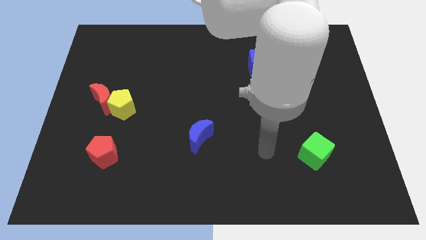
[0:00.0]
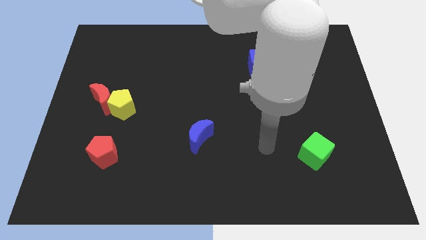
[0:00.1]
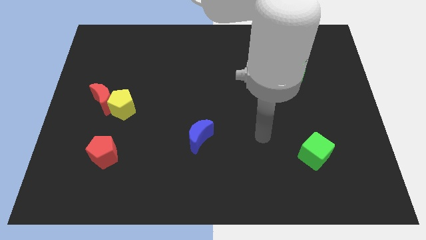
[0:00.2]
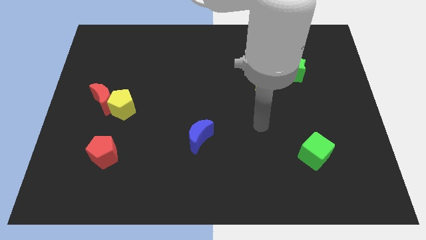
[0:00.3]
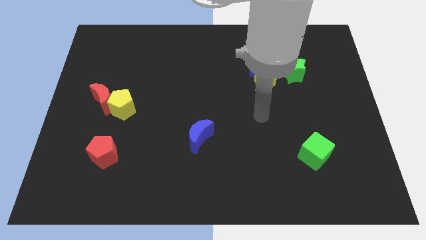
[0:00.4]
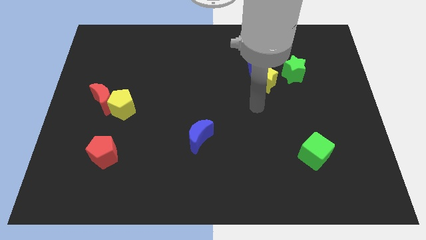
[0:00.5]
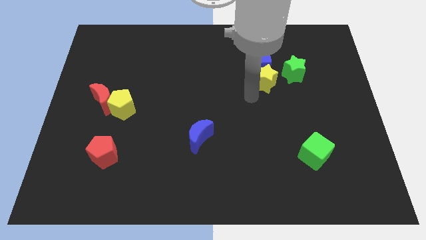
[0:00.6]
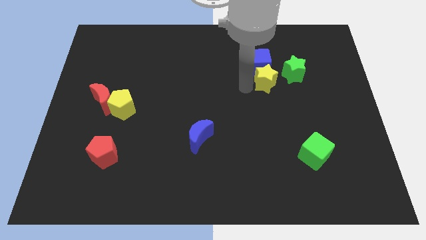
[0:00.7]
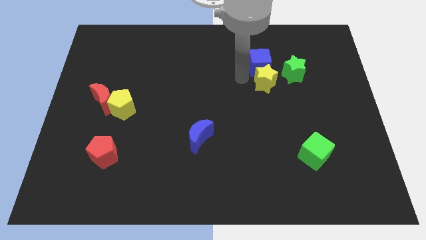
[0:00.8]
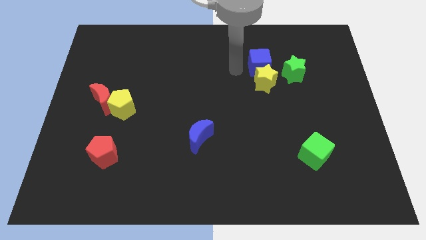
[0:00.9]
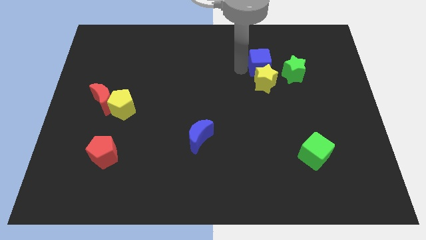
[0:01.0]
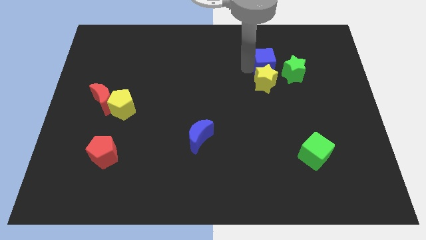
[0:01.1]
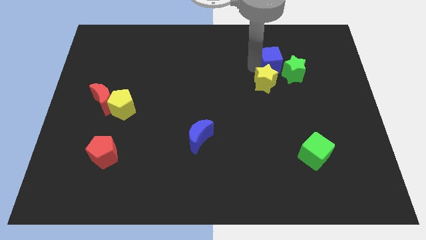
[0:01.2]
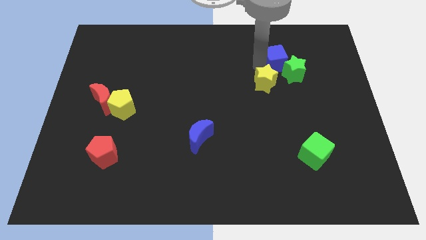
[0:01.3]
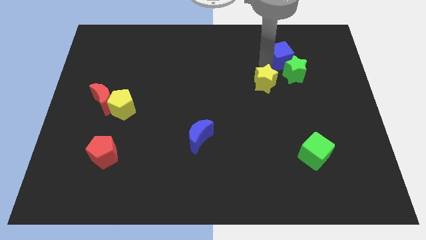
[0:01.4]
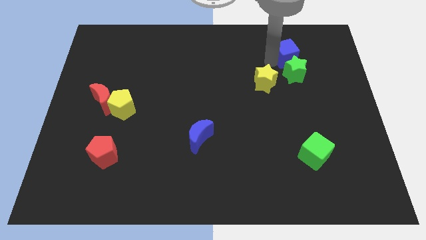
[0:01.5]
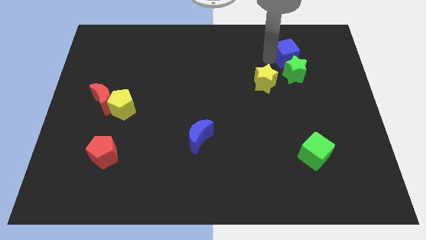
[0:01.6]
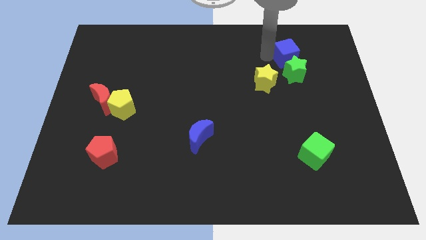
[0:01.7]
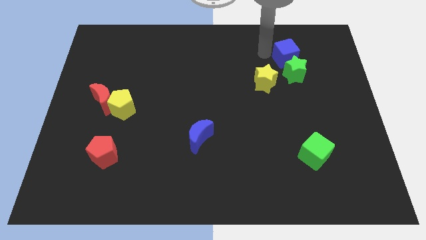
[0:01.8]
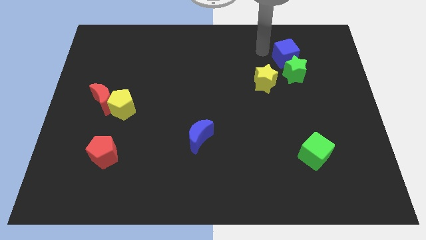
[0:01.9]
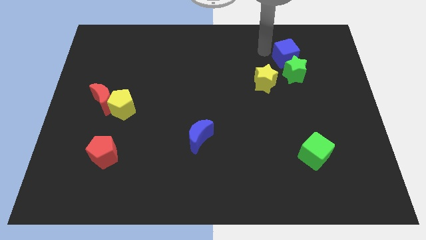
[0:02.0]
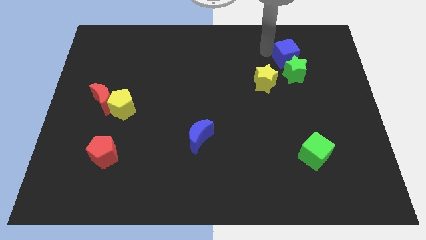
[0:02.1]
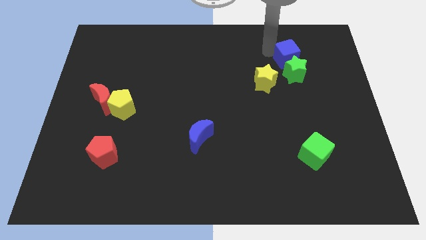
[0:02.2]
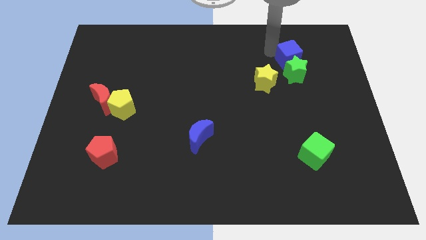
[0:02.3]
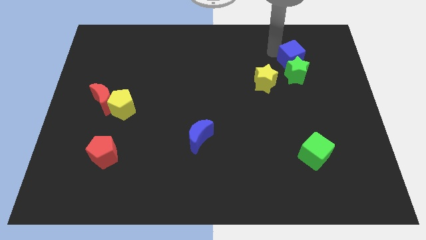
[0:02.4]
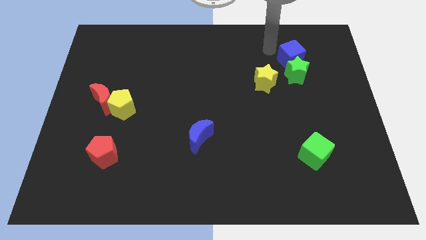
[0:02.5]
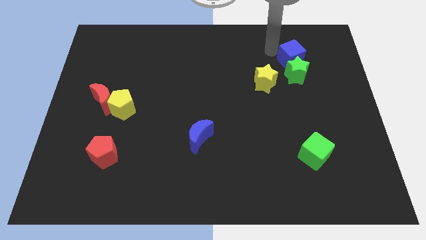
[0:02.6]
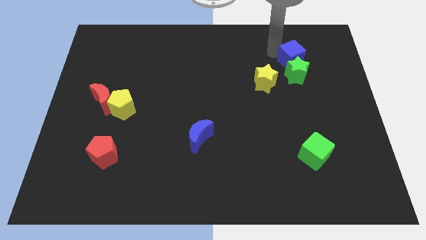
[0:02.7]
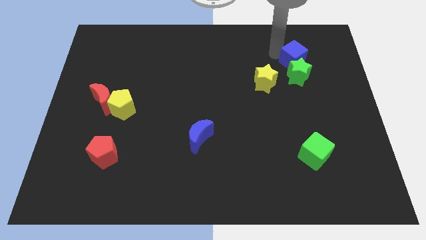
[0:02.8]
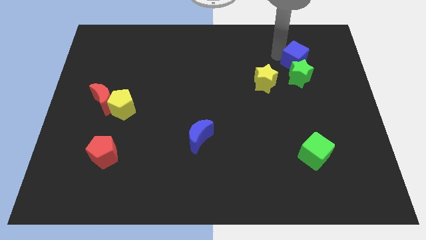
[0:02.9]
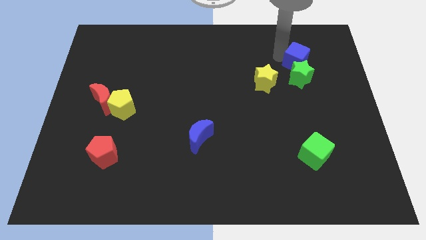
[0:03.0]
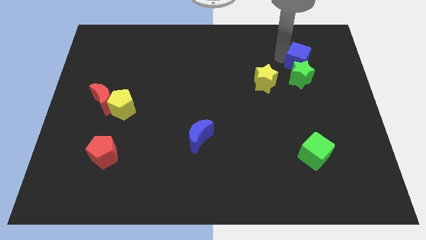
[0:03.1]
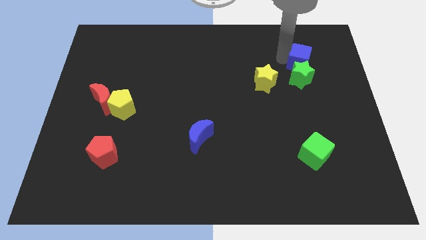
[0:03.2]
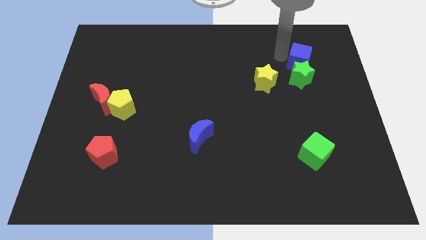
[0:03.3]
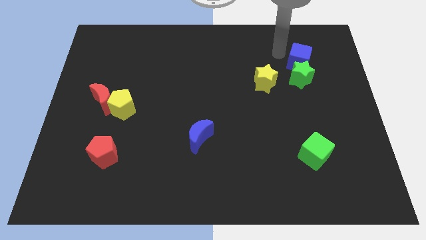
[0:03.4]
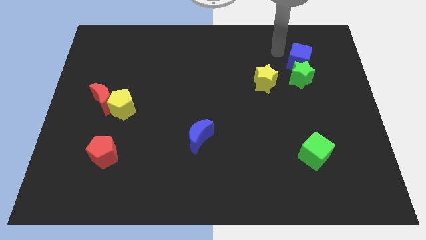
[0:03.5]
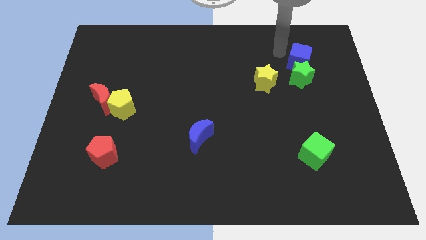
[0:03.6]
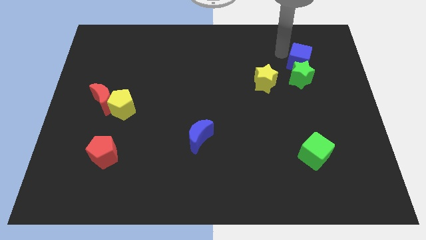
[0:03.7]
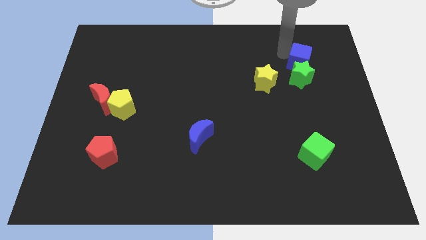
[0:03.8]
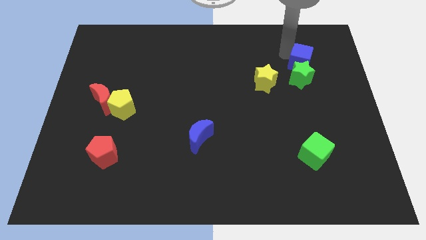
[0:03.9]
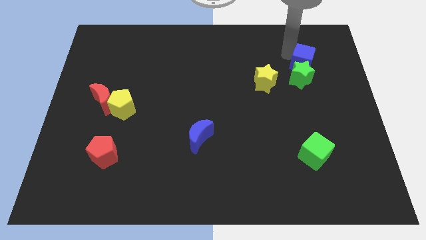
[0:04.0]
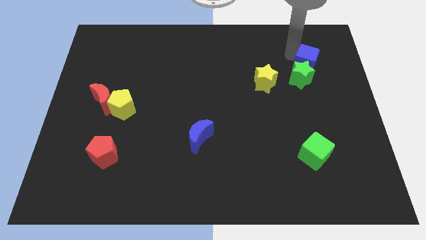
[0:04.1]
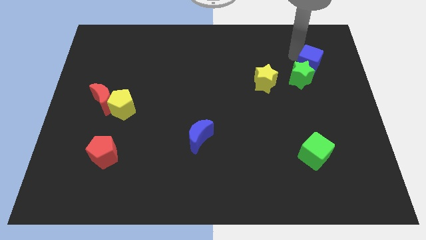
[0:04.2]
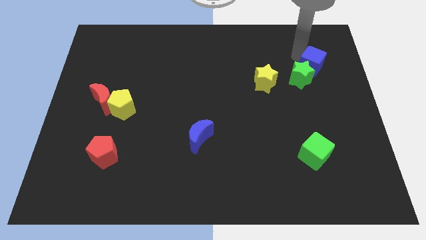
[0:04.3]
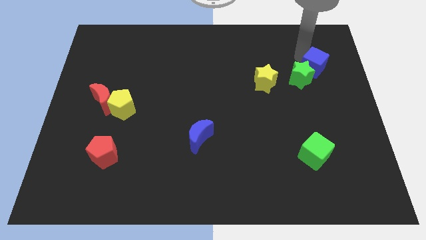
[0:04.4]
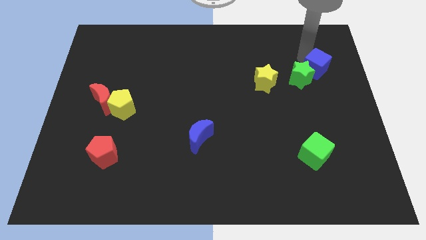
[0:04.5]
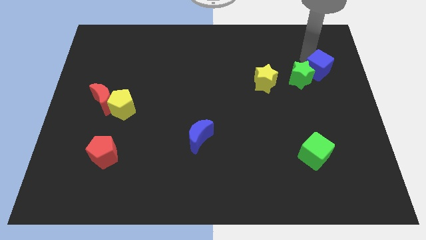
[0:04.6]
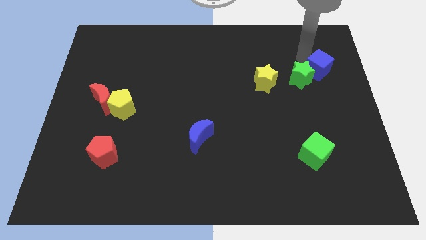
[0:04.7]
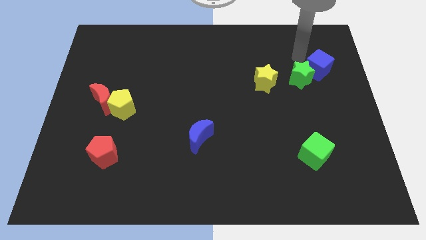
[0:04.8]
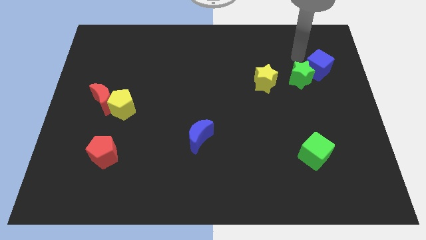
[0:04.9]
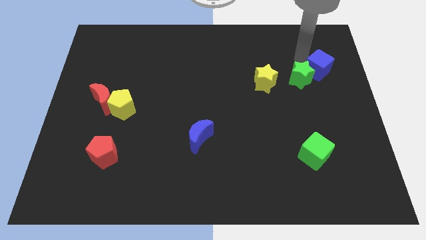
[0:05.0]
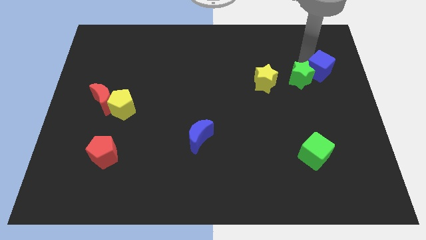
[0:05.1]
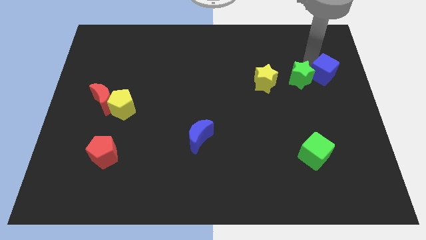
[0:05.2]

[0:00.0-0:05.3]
put the blue cube to the right side of the board

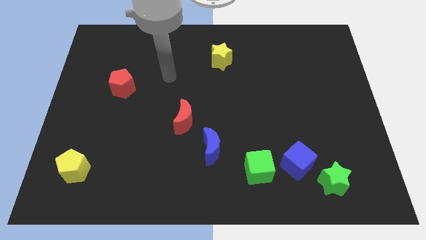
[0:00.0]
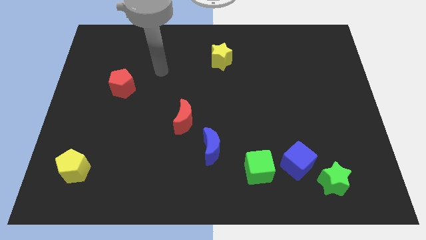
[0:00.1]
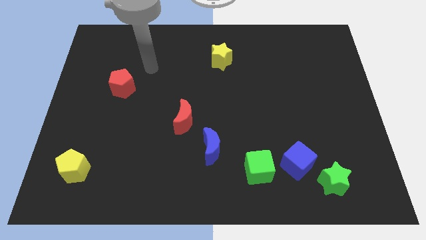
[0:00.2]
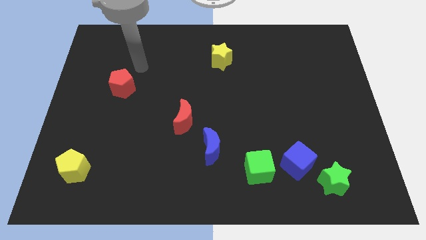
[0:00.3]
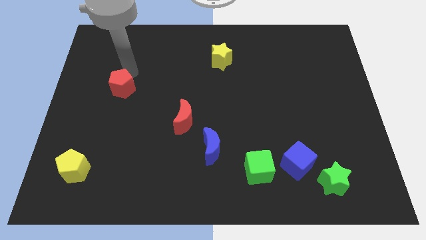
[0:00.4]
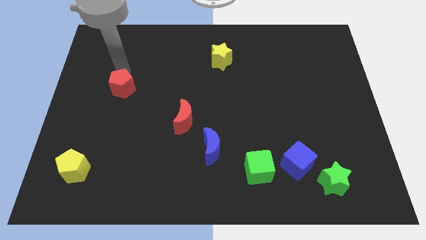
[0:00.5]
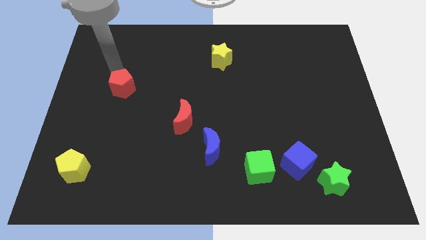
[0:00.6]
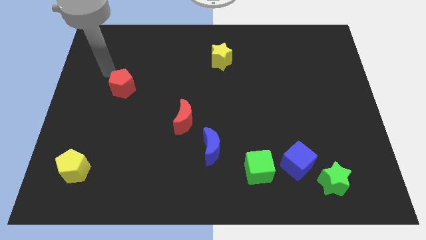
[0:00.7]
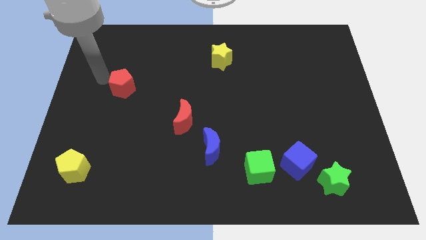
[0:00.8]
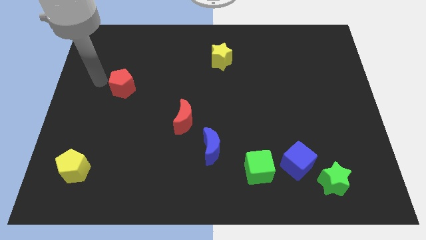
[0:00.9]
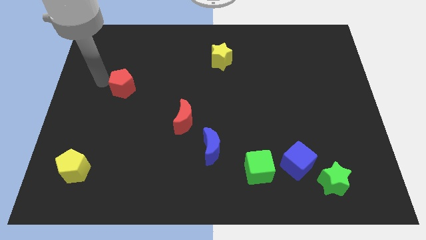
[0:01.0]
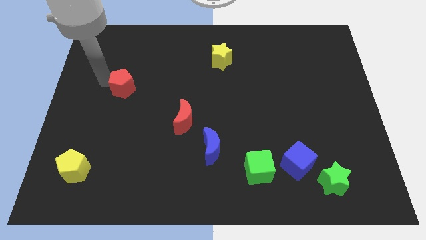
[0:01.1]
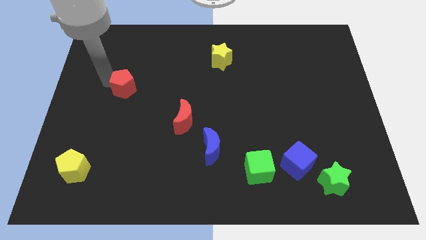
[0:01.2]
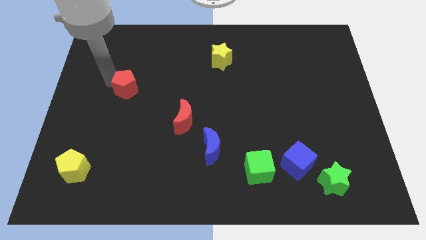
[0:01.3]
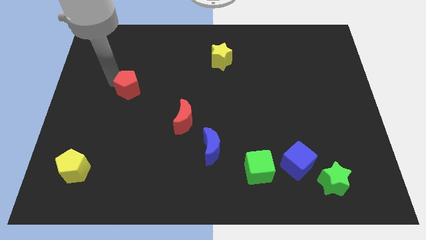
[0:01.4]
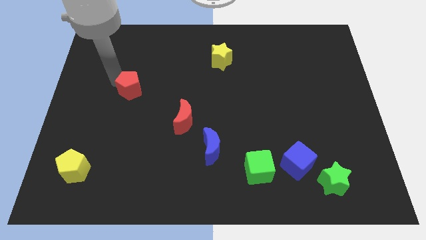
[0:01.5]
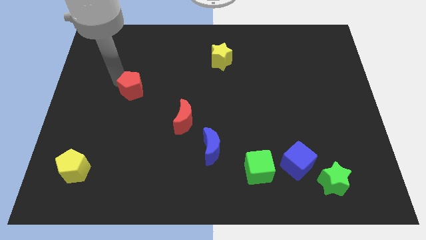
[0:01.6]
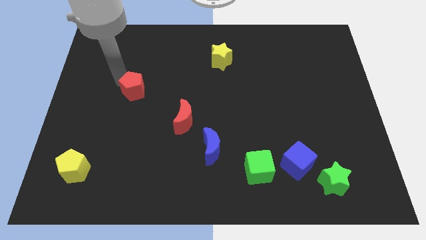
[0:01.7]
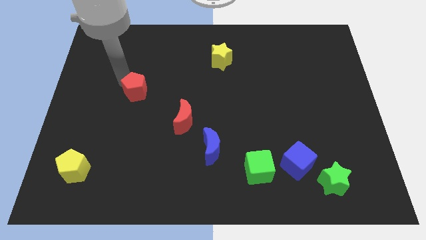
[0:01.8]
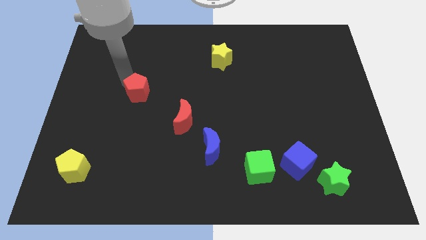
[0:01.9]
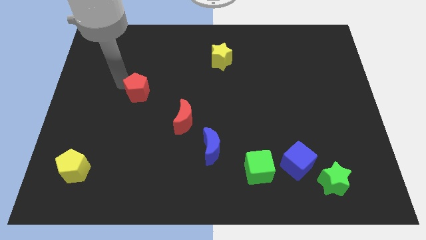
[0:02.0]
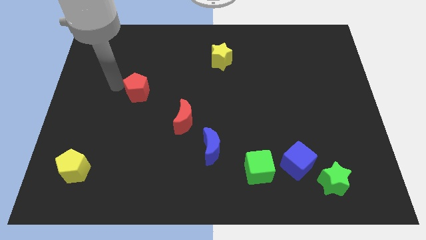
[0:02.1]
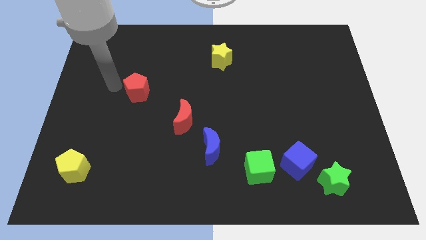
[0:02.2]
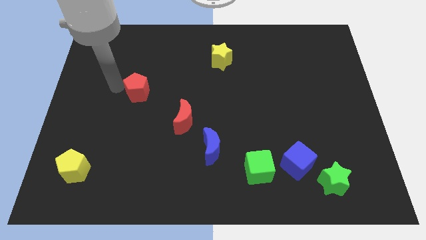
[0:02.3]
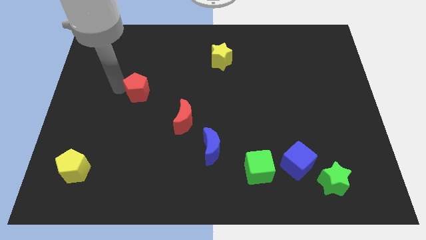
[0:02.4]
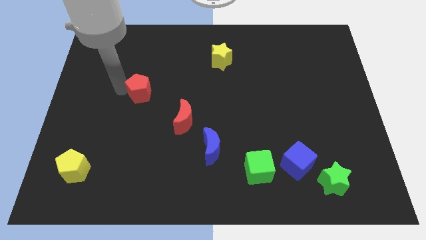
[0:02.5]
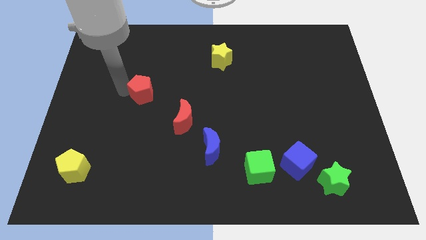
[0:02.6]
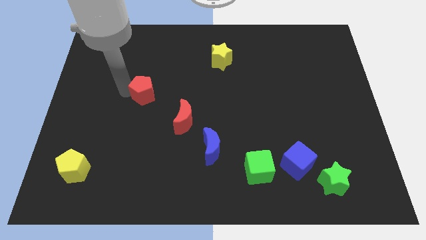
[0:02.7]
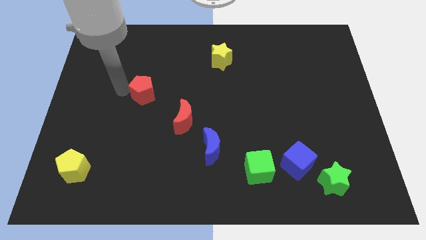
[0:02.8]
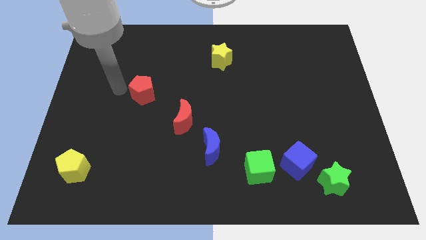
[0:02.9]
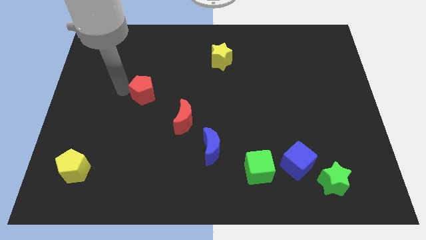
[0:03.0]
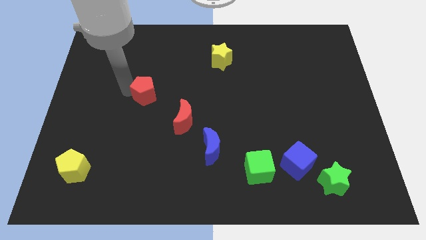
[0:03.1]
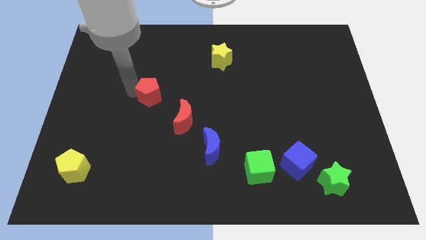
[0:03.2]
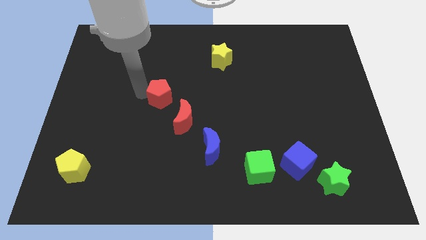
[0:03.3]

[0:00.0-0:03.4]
push the red pentagon to the middle
